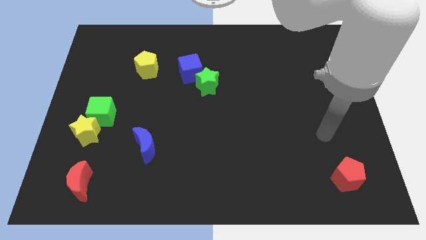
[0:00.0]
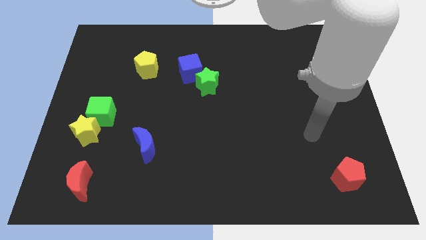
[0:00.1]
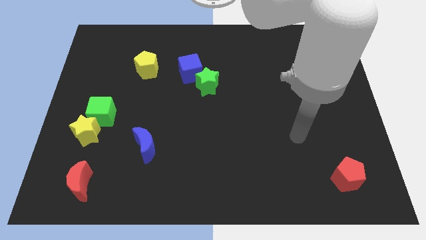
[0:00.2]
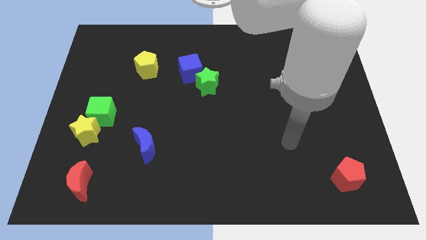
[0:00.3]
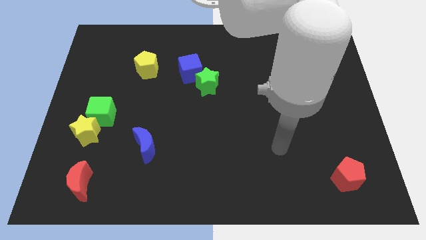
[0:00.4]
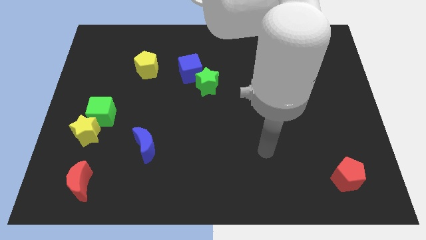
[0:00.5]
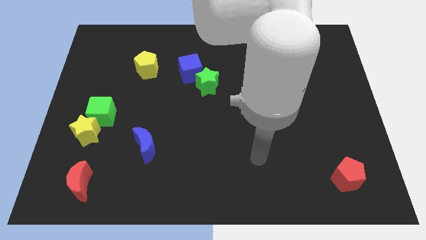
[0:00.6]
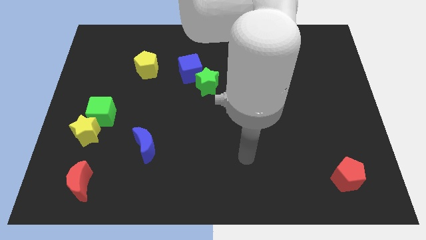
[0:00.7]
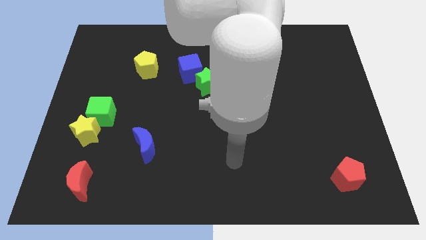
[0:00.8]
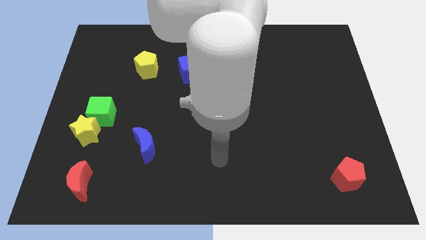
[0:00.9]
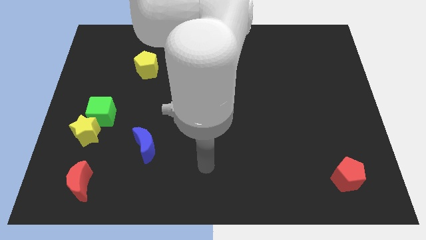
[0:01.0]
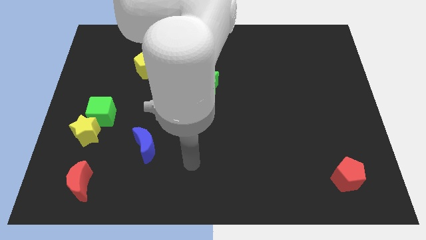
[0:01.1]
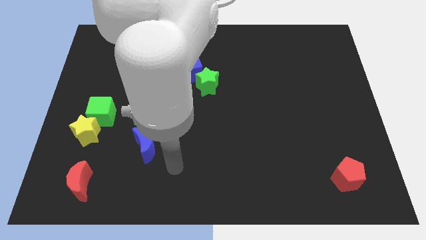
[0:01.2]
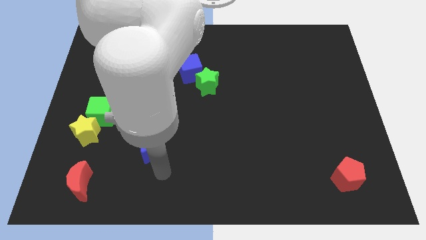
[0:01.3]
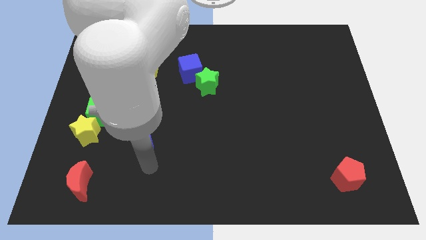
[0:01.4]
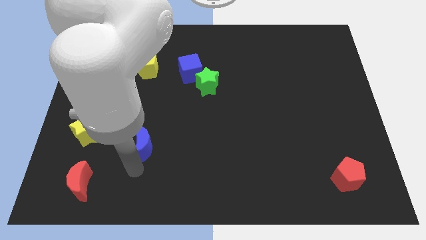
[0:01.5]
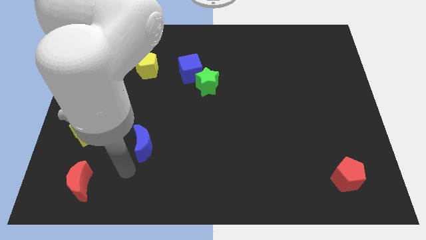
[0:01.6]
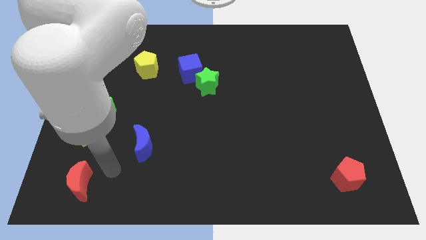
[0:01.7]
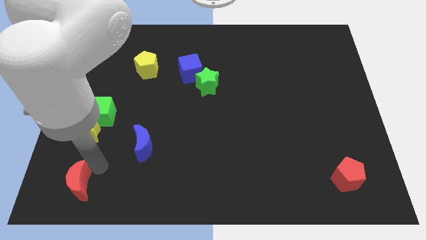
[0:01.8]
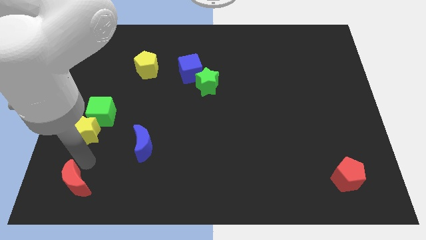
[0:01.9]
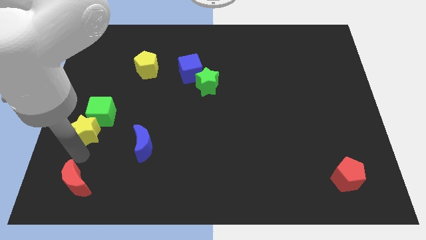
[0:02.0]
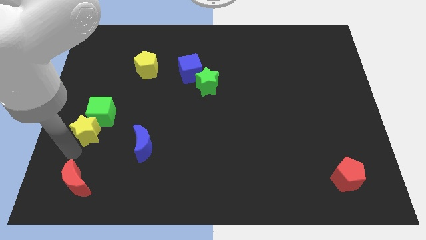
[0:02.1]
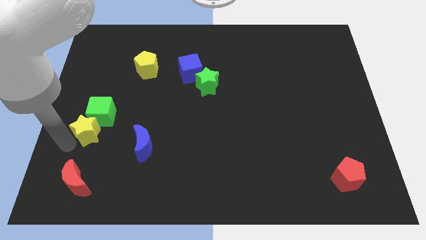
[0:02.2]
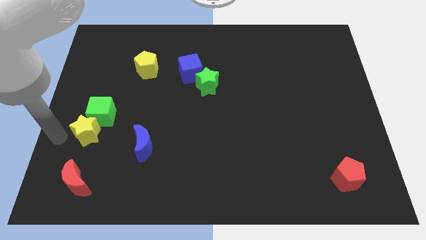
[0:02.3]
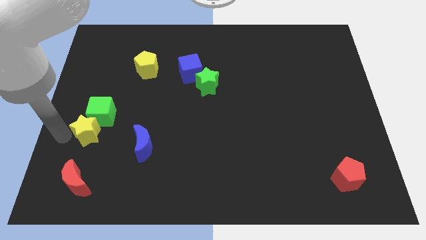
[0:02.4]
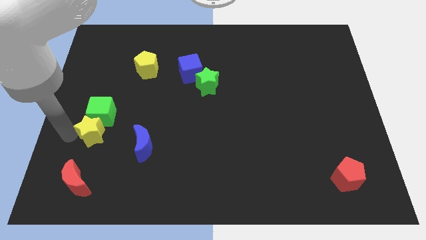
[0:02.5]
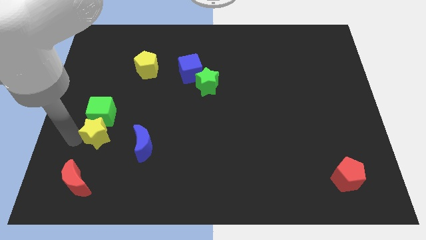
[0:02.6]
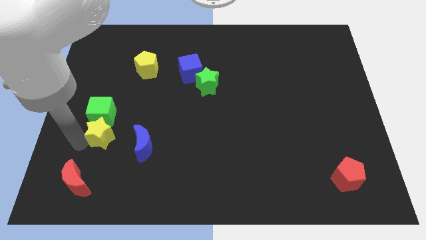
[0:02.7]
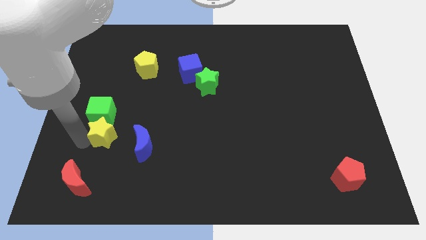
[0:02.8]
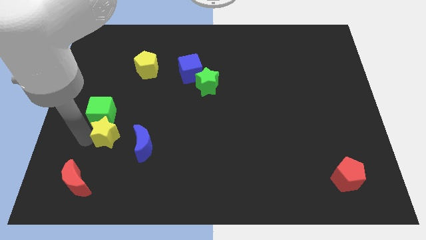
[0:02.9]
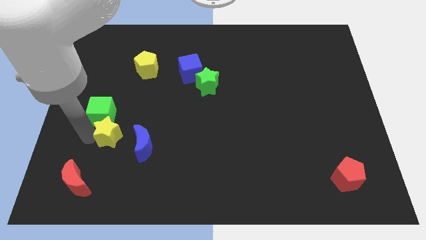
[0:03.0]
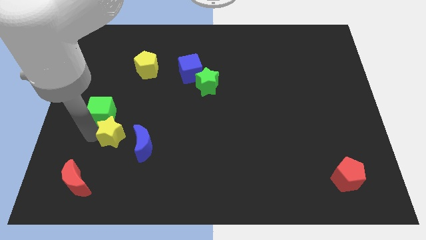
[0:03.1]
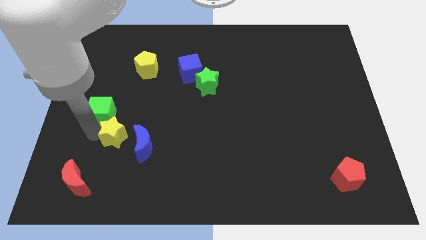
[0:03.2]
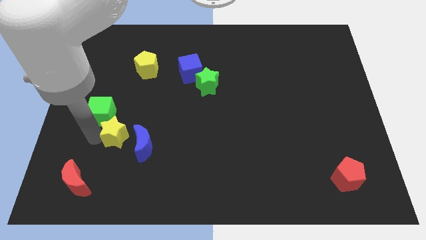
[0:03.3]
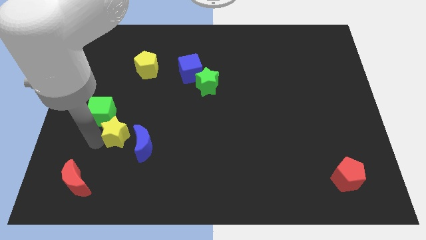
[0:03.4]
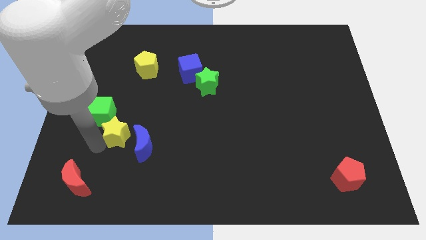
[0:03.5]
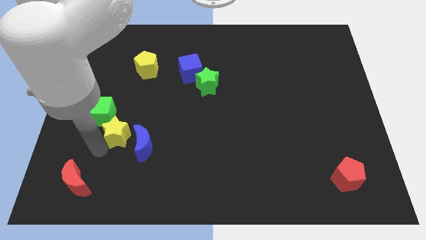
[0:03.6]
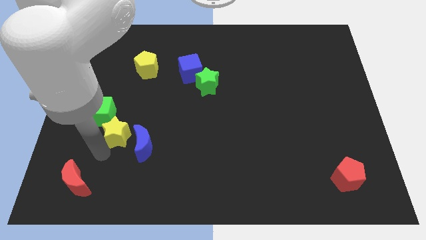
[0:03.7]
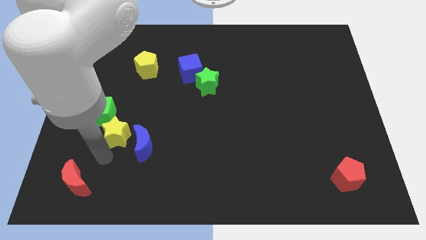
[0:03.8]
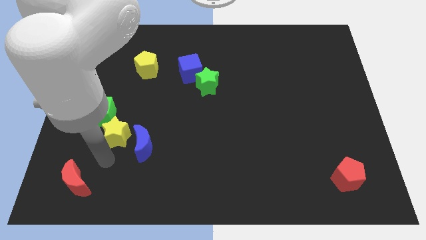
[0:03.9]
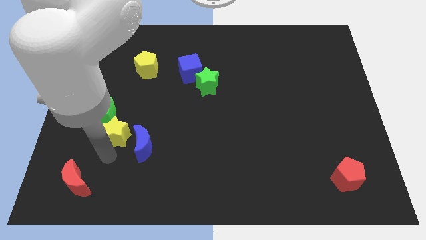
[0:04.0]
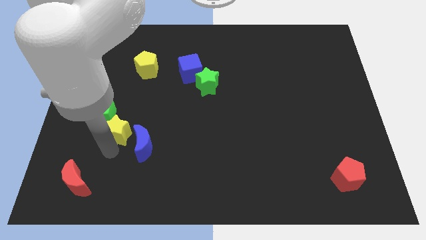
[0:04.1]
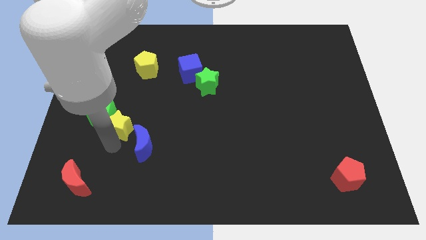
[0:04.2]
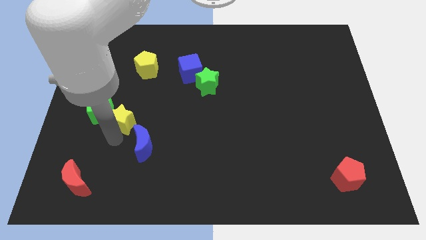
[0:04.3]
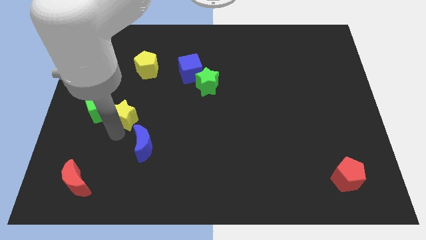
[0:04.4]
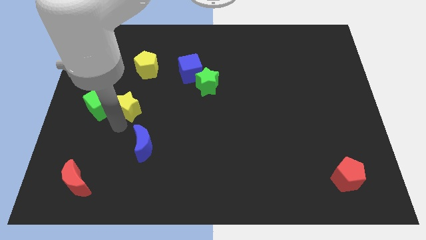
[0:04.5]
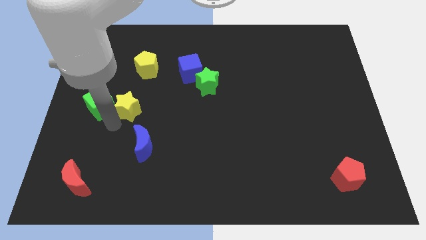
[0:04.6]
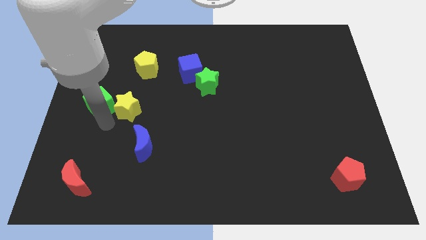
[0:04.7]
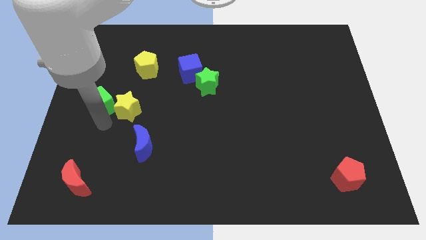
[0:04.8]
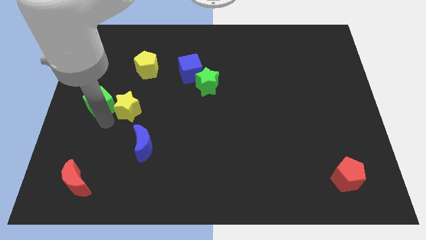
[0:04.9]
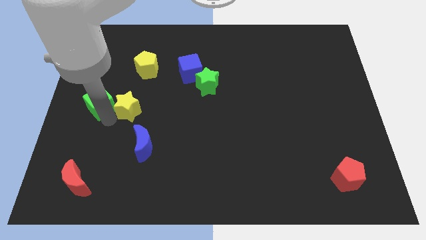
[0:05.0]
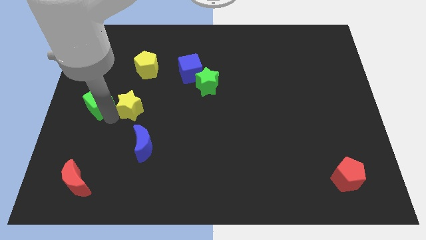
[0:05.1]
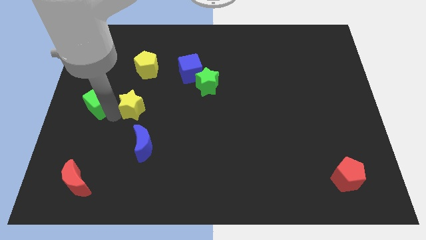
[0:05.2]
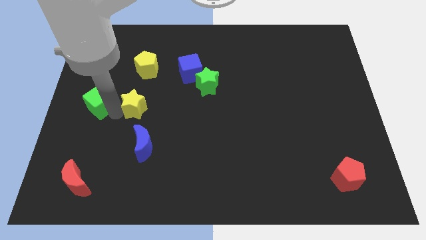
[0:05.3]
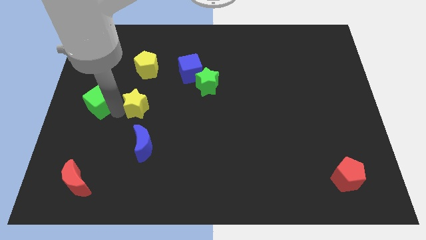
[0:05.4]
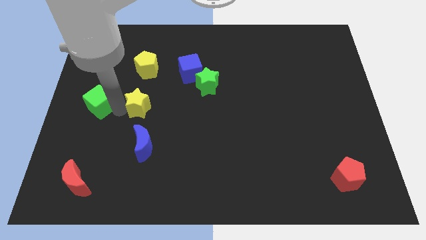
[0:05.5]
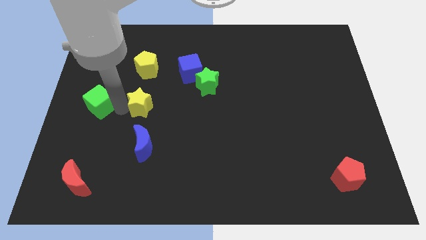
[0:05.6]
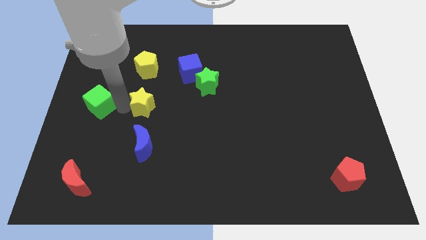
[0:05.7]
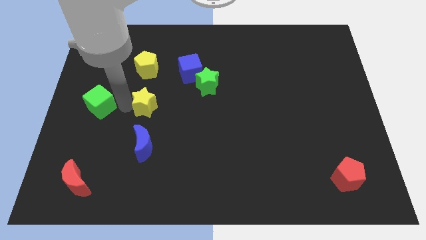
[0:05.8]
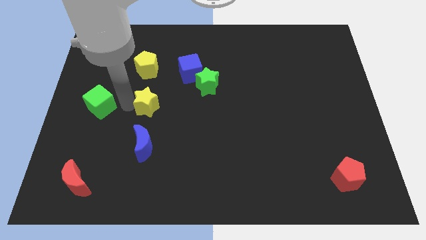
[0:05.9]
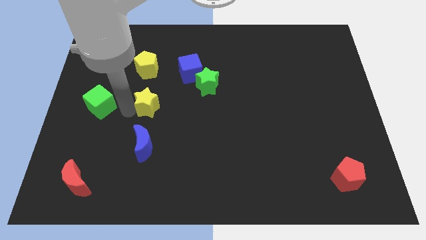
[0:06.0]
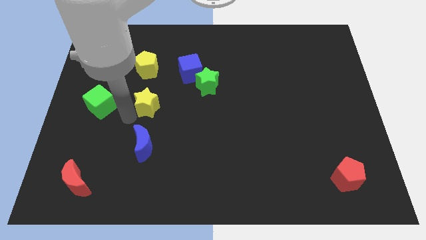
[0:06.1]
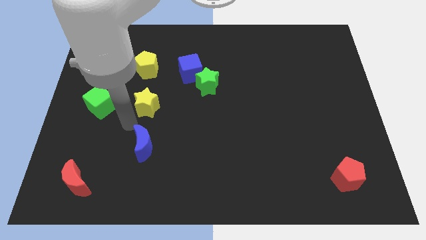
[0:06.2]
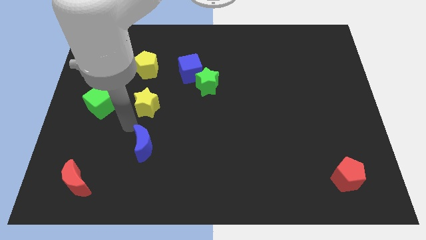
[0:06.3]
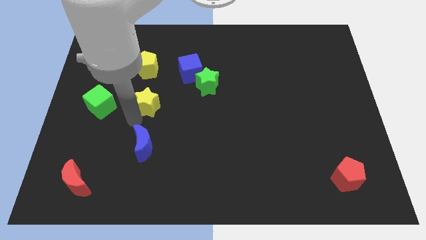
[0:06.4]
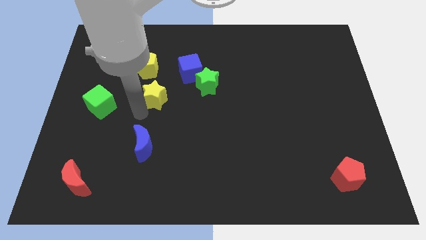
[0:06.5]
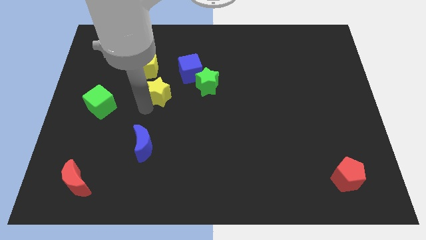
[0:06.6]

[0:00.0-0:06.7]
push the yellow star to the bottom right of the yellow pentagon
